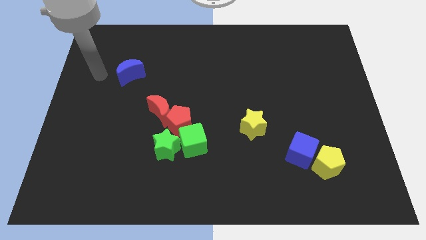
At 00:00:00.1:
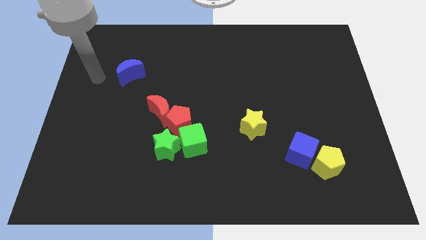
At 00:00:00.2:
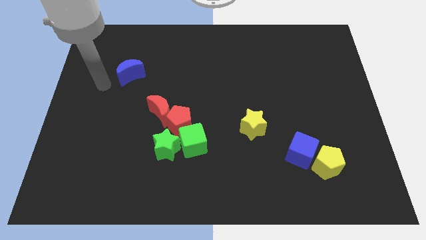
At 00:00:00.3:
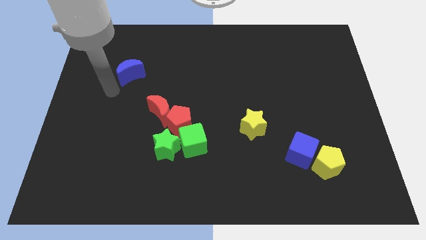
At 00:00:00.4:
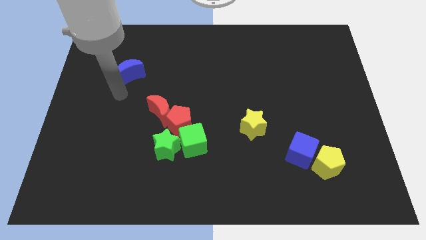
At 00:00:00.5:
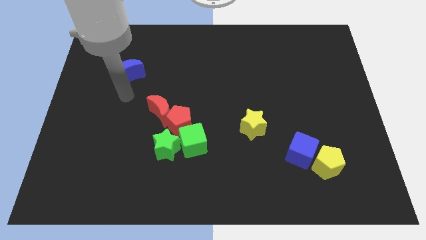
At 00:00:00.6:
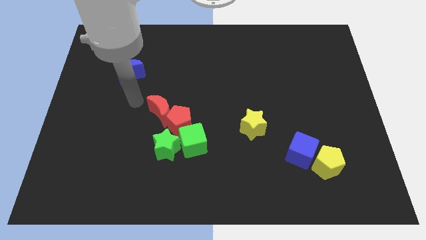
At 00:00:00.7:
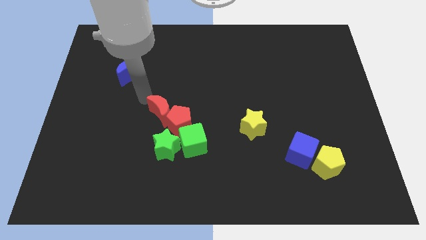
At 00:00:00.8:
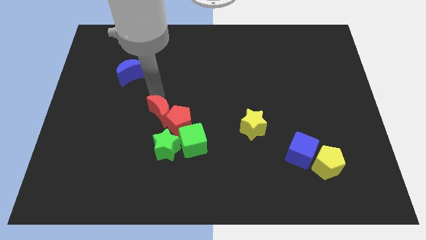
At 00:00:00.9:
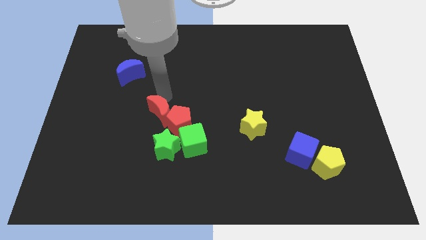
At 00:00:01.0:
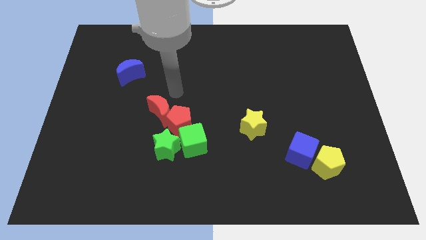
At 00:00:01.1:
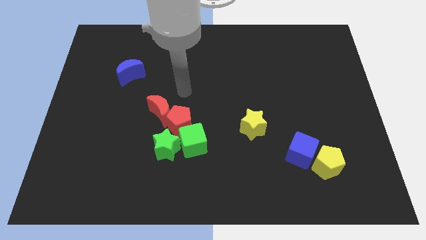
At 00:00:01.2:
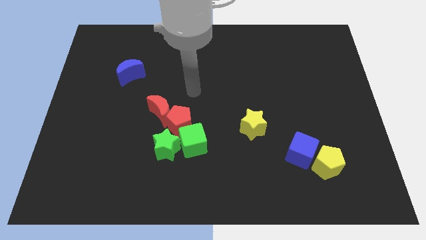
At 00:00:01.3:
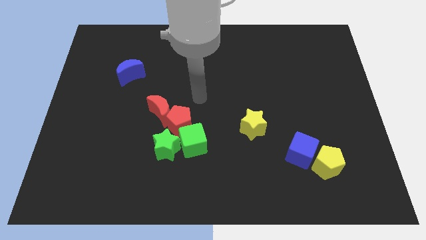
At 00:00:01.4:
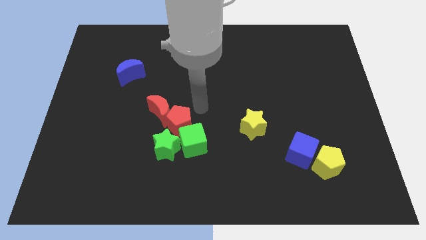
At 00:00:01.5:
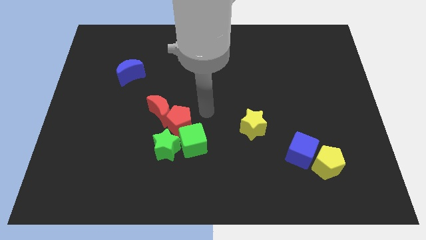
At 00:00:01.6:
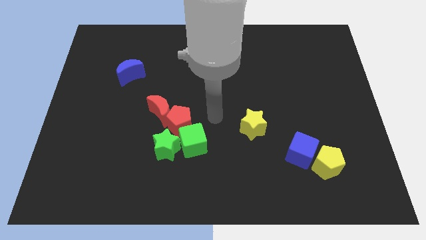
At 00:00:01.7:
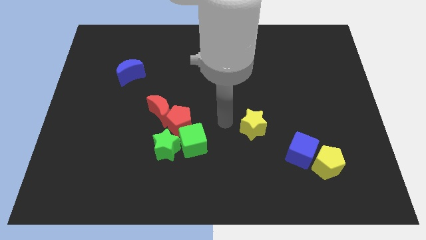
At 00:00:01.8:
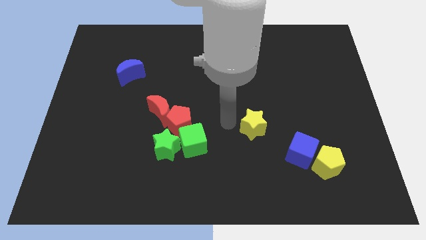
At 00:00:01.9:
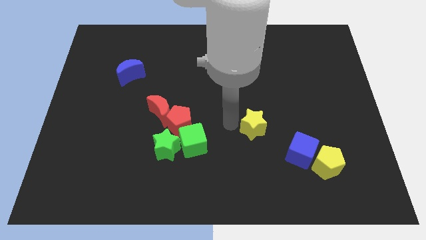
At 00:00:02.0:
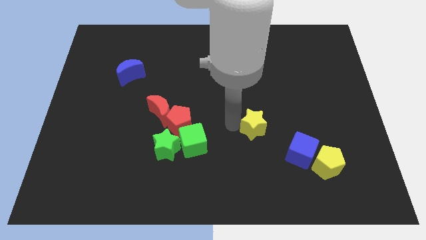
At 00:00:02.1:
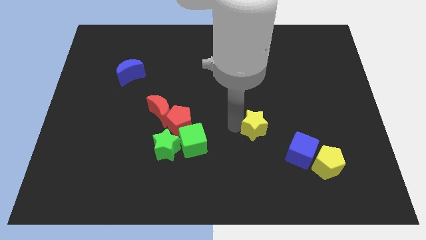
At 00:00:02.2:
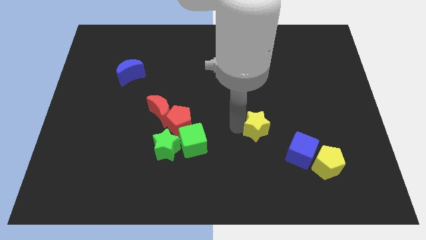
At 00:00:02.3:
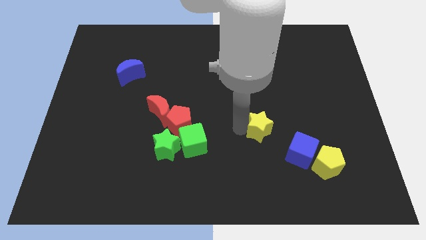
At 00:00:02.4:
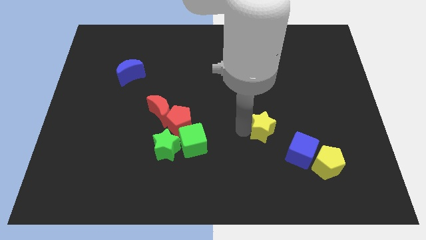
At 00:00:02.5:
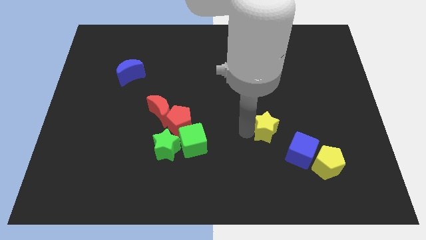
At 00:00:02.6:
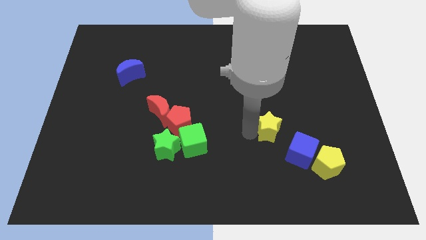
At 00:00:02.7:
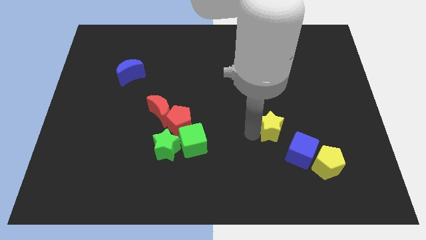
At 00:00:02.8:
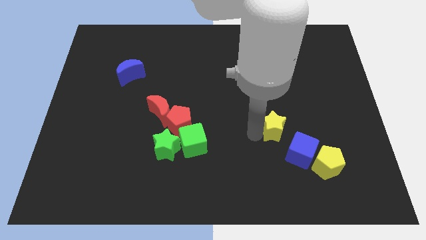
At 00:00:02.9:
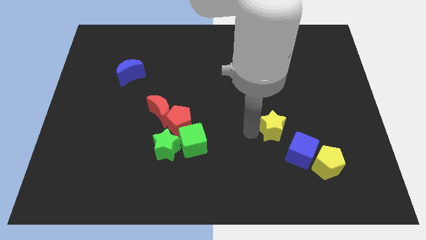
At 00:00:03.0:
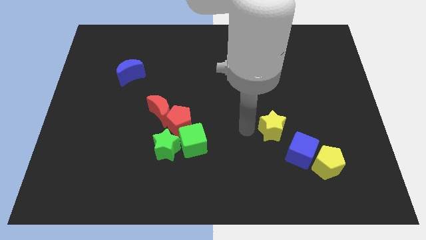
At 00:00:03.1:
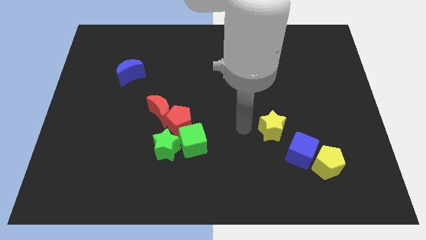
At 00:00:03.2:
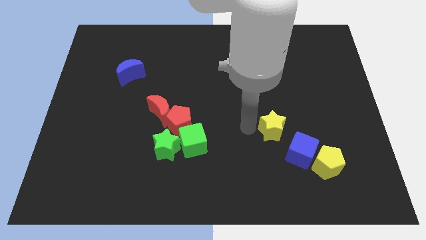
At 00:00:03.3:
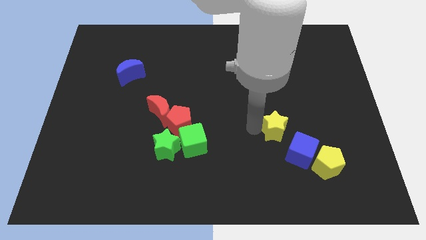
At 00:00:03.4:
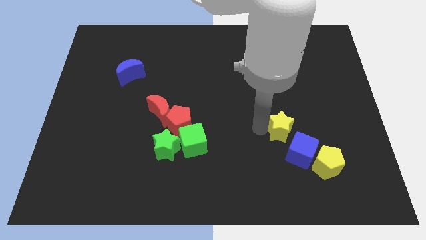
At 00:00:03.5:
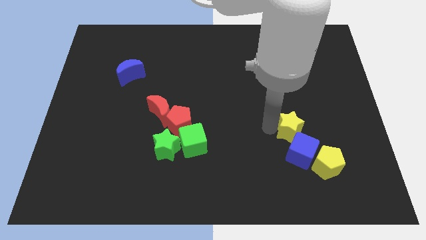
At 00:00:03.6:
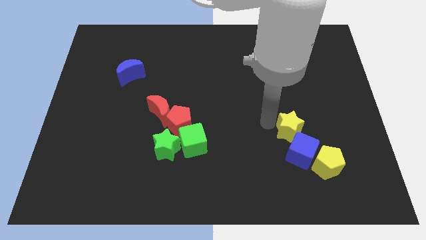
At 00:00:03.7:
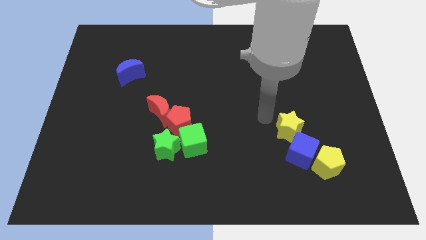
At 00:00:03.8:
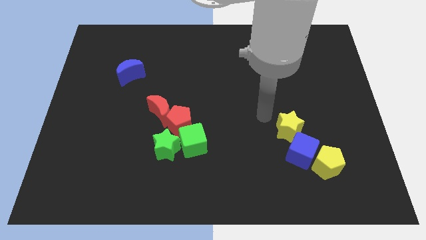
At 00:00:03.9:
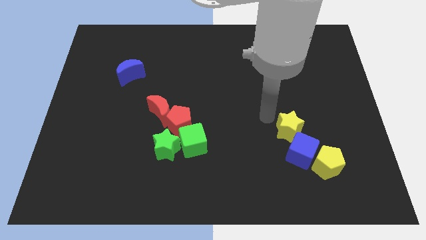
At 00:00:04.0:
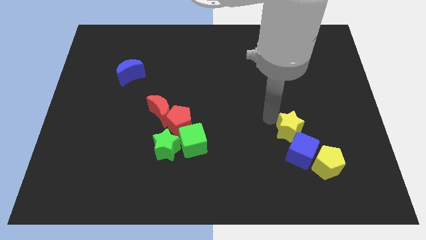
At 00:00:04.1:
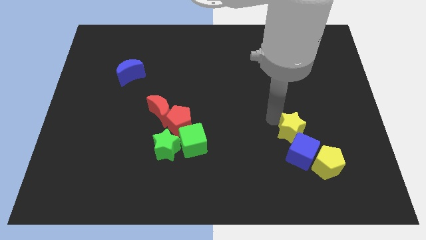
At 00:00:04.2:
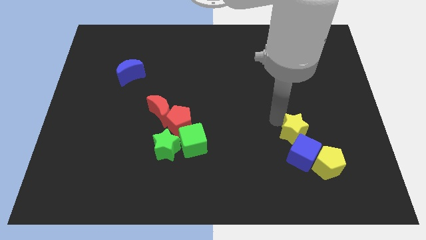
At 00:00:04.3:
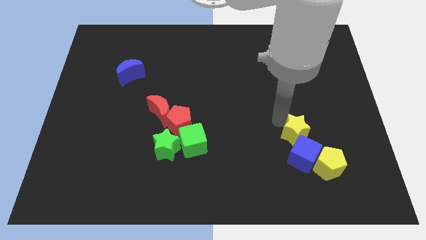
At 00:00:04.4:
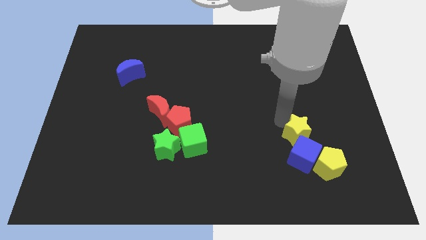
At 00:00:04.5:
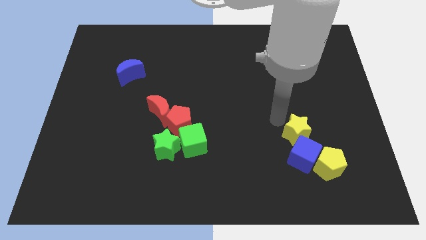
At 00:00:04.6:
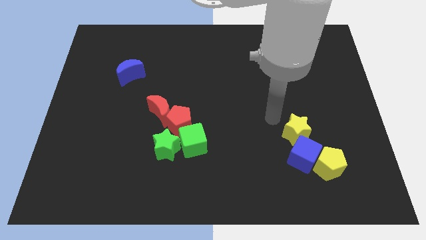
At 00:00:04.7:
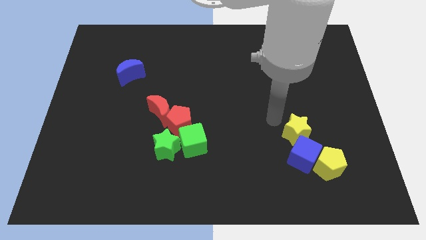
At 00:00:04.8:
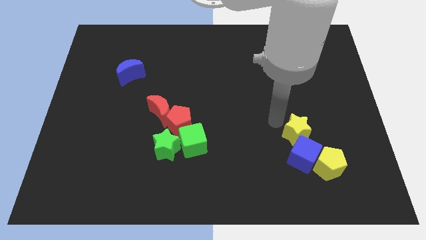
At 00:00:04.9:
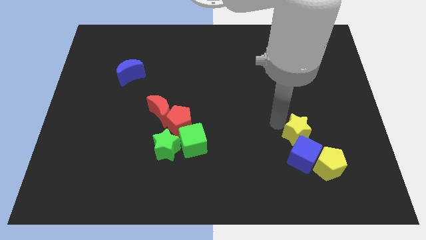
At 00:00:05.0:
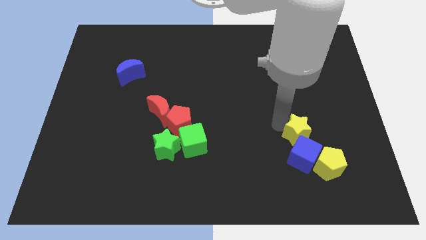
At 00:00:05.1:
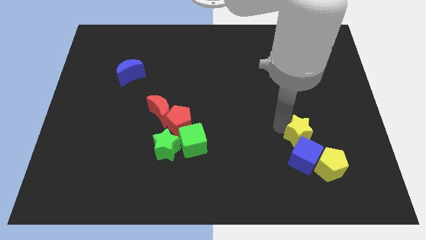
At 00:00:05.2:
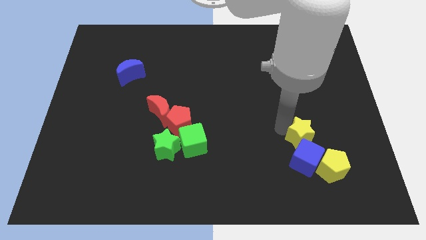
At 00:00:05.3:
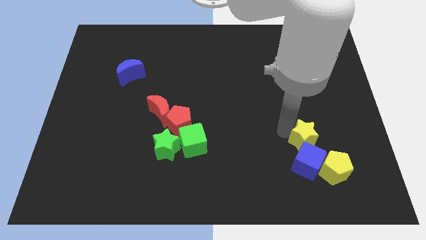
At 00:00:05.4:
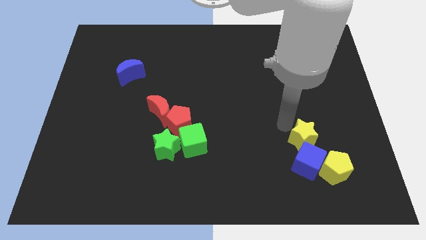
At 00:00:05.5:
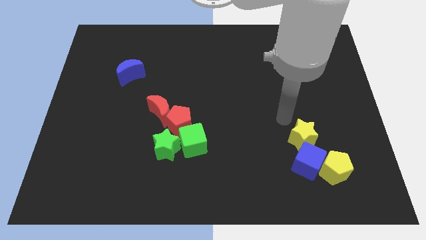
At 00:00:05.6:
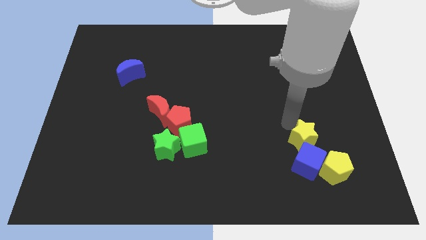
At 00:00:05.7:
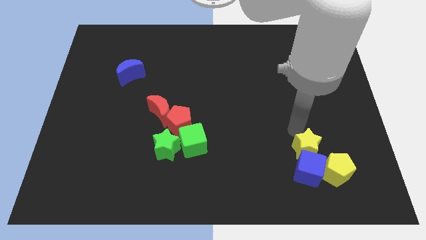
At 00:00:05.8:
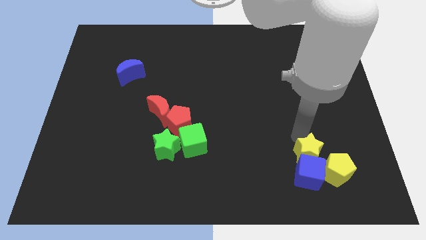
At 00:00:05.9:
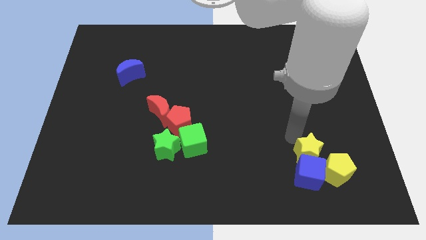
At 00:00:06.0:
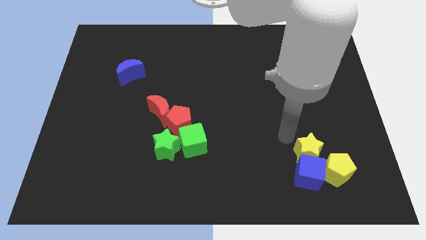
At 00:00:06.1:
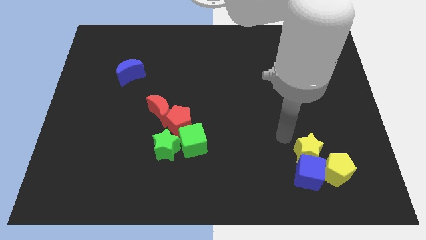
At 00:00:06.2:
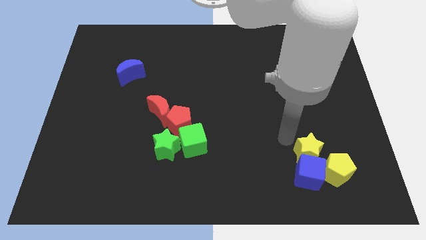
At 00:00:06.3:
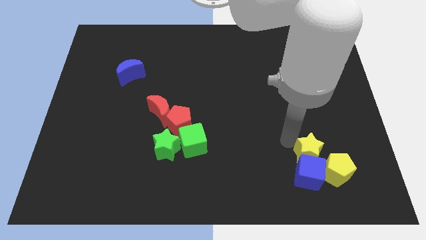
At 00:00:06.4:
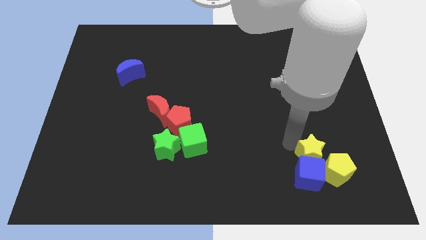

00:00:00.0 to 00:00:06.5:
put the yellow star close to the yellow pentagon

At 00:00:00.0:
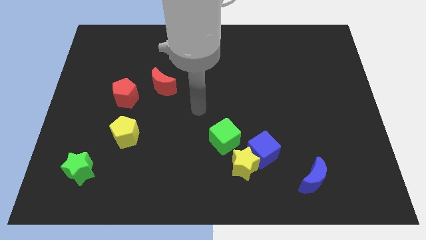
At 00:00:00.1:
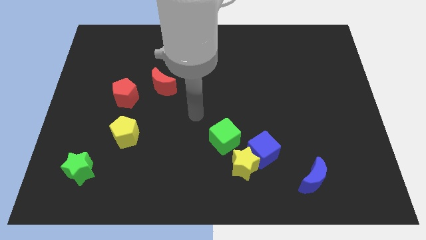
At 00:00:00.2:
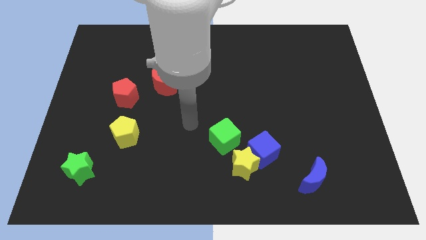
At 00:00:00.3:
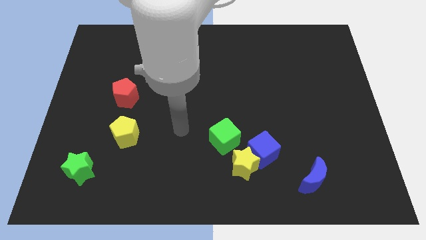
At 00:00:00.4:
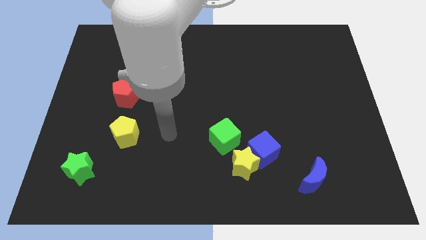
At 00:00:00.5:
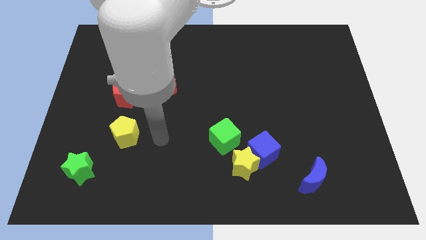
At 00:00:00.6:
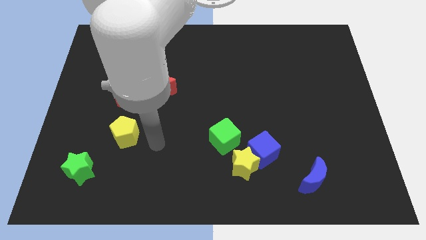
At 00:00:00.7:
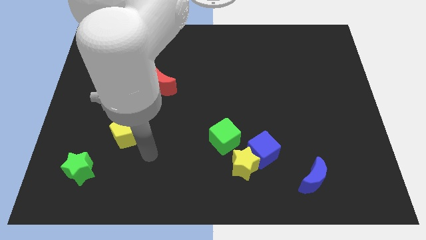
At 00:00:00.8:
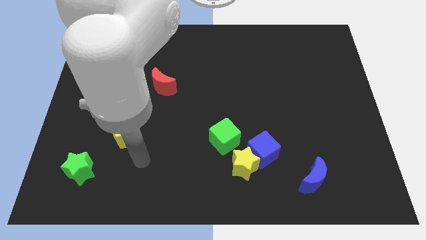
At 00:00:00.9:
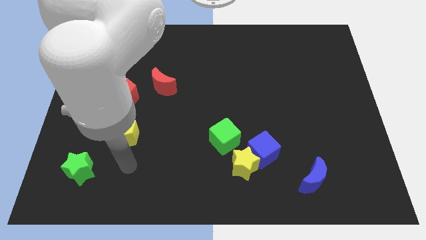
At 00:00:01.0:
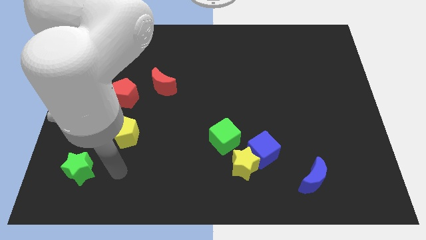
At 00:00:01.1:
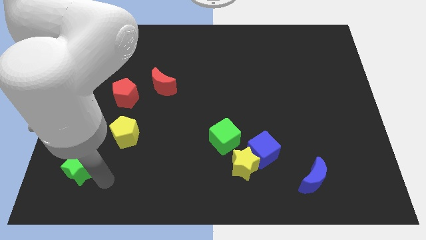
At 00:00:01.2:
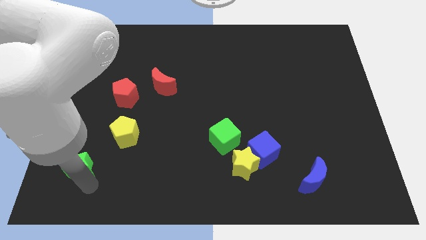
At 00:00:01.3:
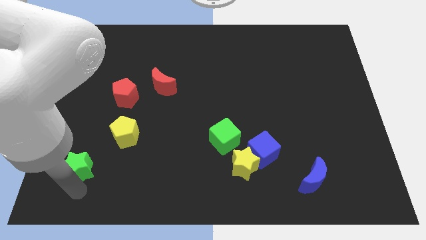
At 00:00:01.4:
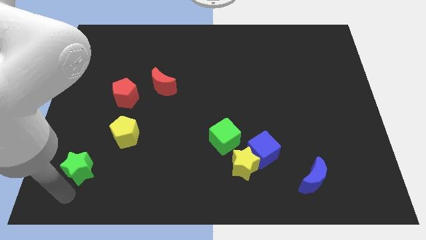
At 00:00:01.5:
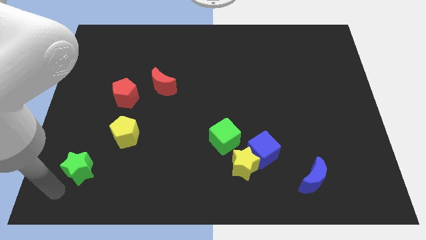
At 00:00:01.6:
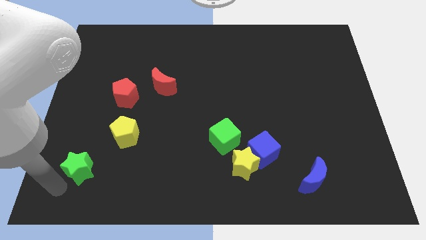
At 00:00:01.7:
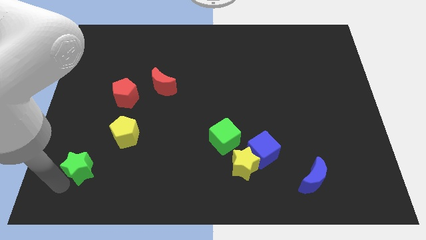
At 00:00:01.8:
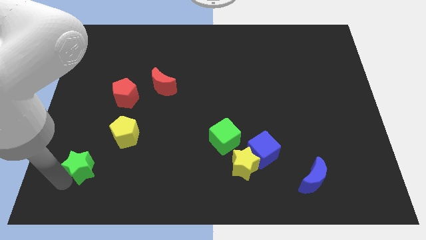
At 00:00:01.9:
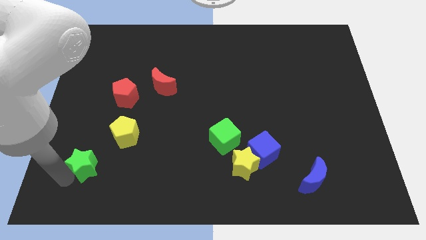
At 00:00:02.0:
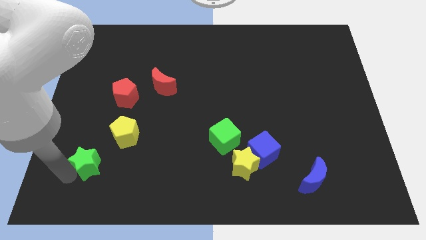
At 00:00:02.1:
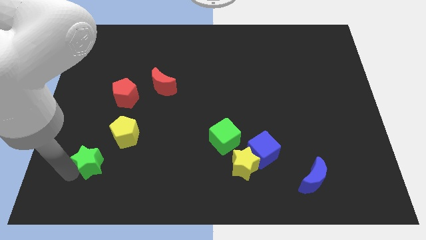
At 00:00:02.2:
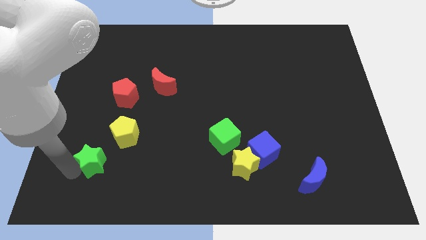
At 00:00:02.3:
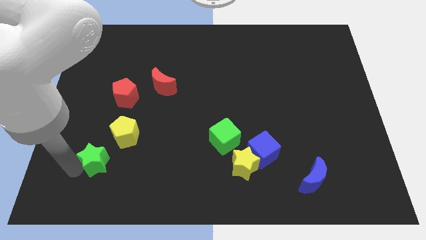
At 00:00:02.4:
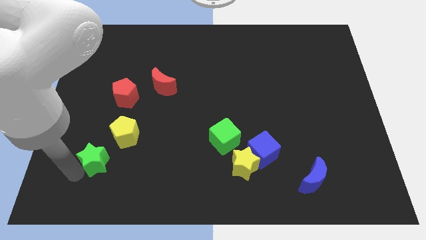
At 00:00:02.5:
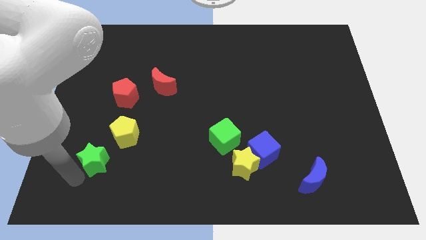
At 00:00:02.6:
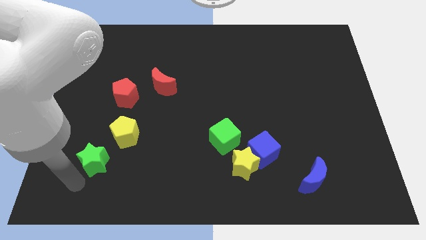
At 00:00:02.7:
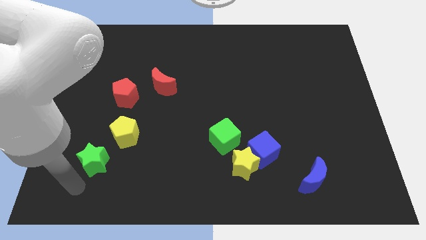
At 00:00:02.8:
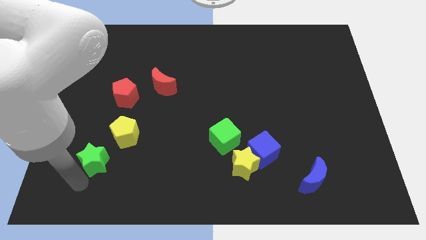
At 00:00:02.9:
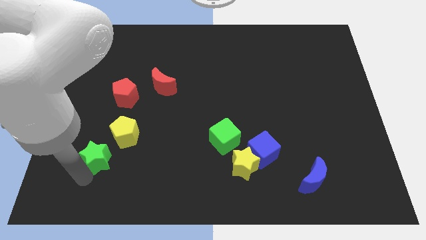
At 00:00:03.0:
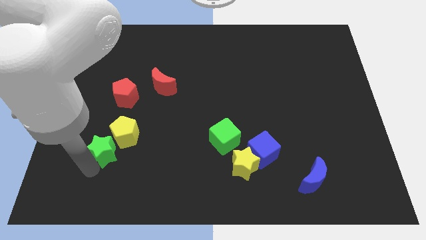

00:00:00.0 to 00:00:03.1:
push the green star close to the yellow pentagon
